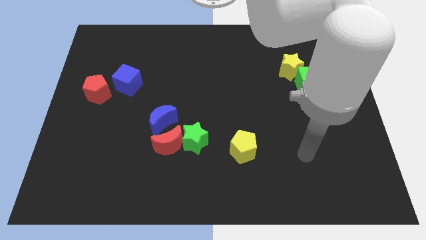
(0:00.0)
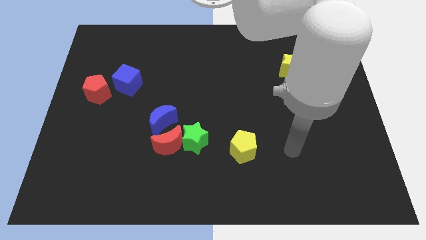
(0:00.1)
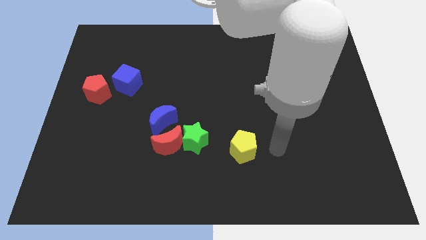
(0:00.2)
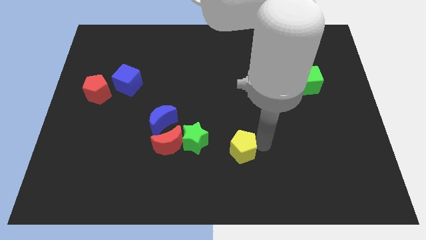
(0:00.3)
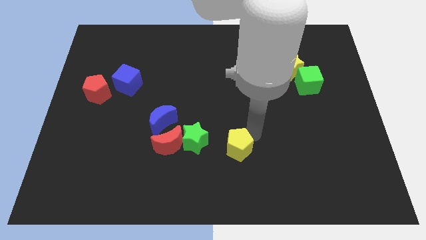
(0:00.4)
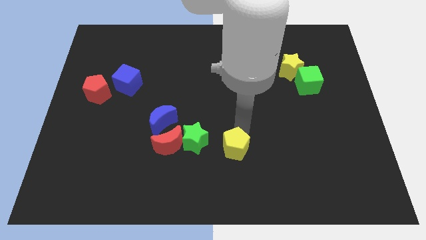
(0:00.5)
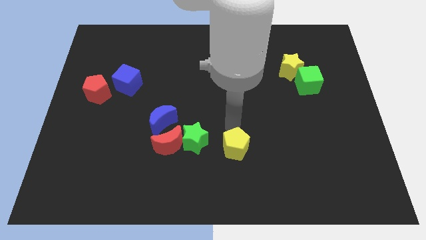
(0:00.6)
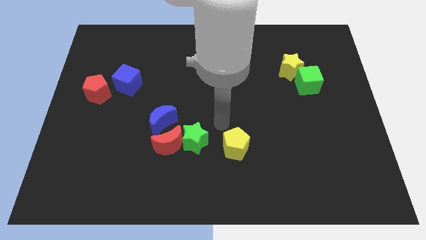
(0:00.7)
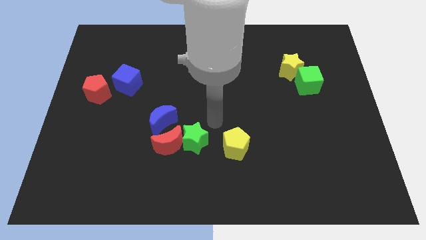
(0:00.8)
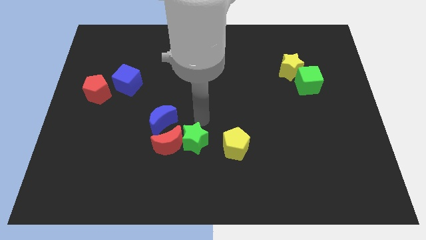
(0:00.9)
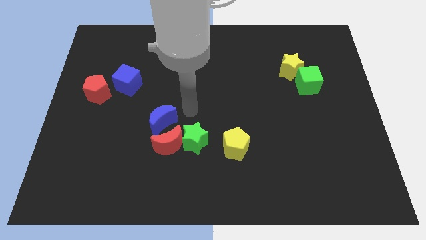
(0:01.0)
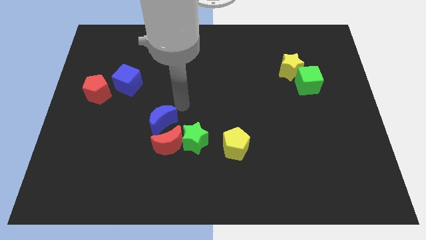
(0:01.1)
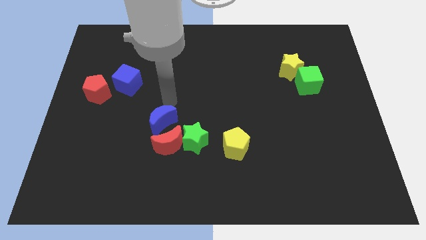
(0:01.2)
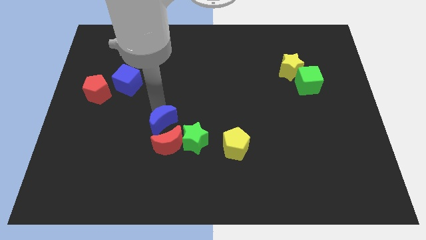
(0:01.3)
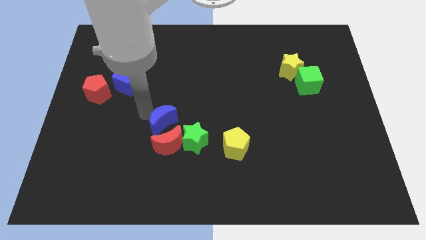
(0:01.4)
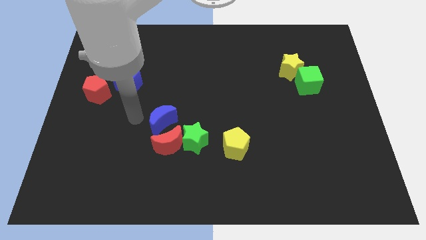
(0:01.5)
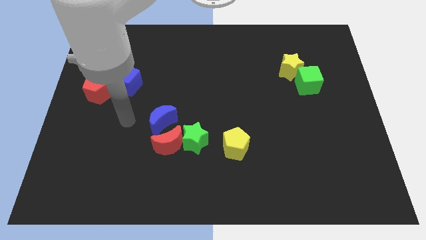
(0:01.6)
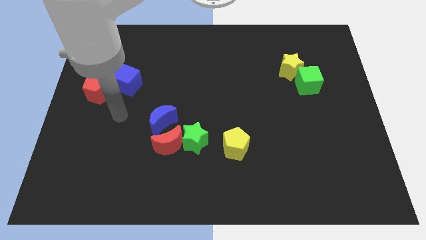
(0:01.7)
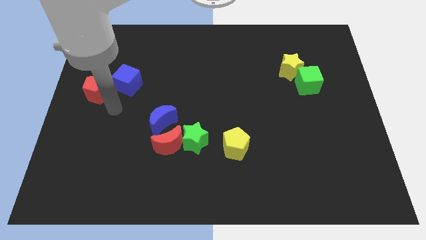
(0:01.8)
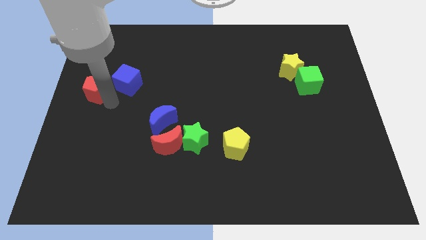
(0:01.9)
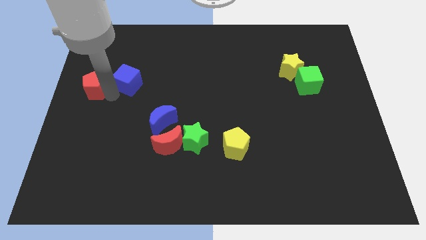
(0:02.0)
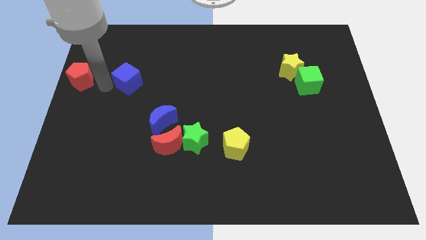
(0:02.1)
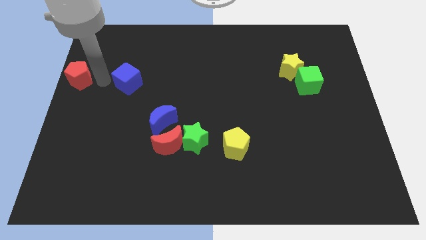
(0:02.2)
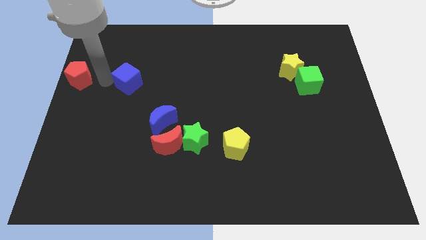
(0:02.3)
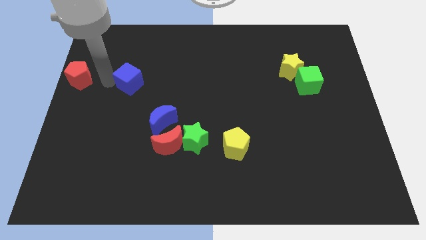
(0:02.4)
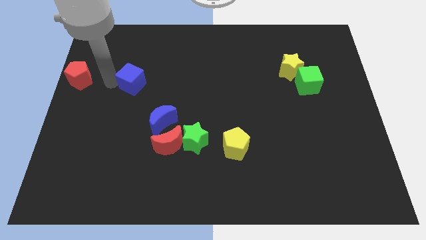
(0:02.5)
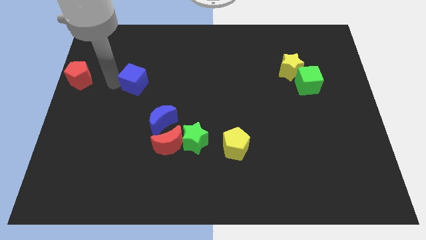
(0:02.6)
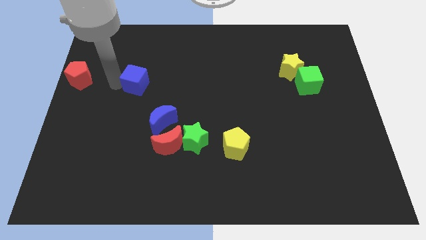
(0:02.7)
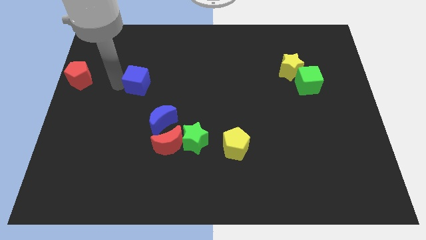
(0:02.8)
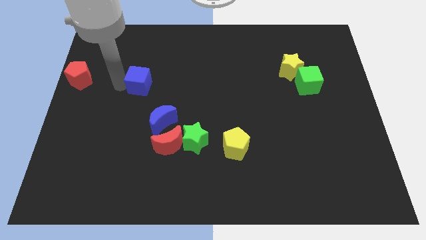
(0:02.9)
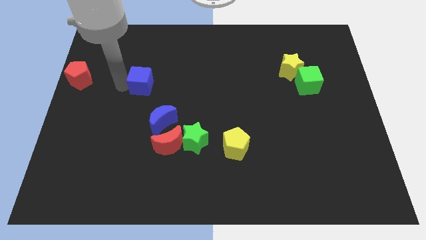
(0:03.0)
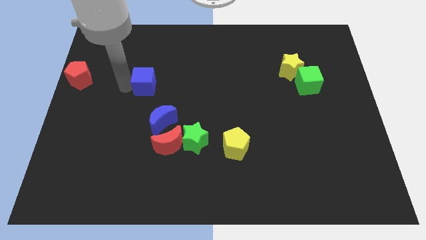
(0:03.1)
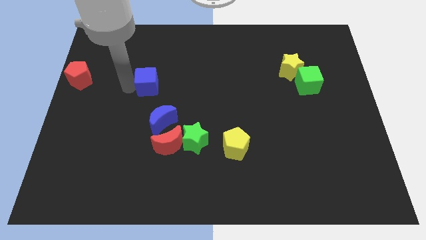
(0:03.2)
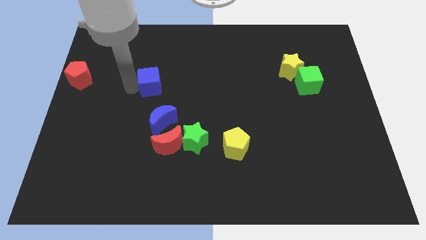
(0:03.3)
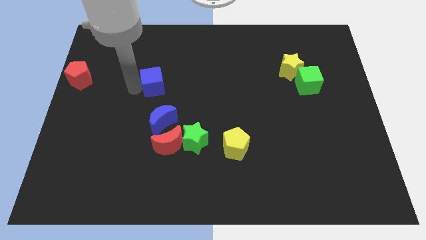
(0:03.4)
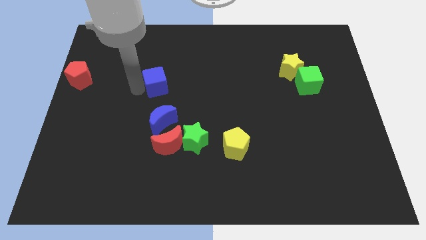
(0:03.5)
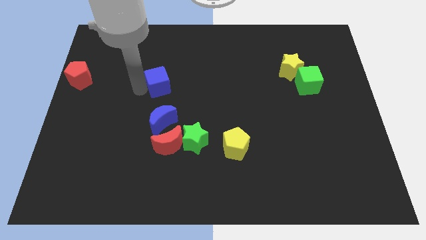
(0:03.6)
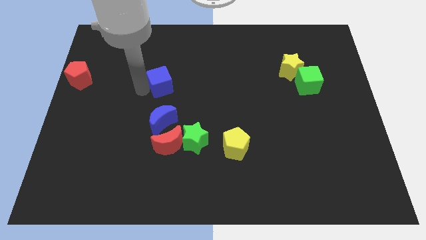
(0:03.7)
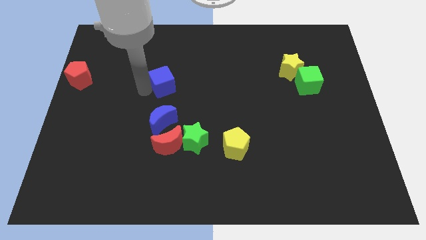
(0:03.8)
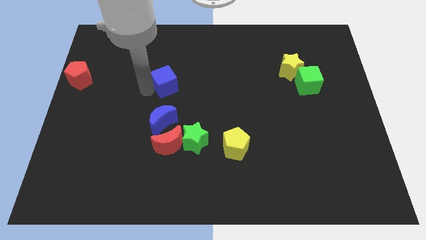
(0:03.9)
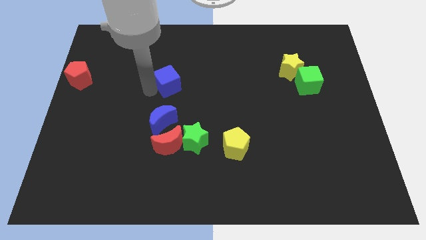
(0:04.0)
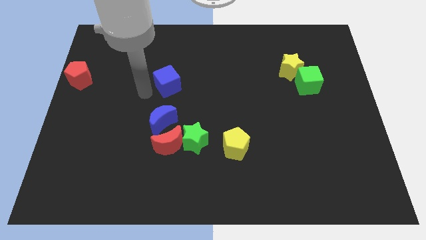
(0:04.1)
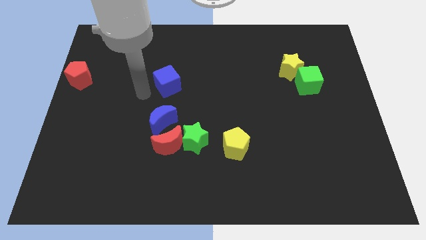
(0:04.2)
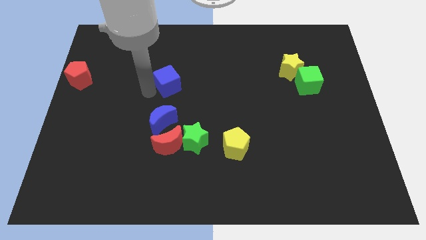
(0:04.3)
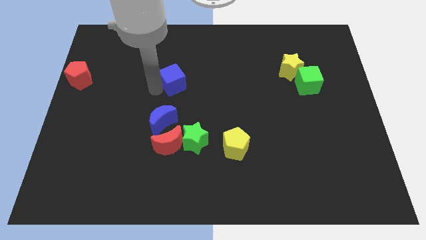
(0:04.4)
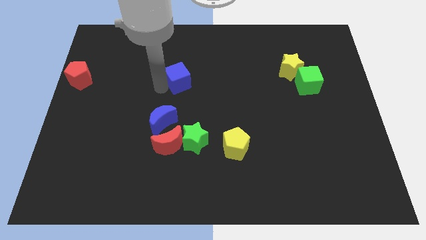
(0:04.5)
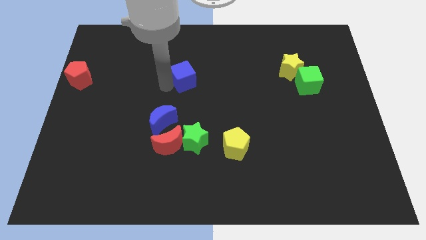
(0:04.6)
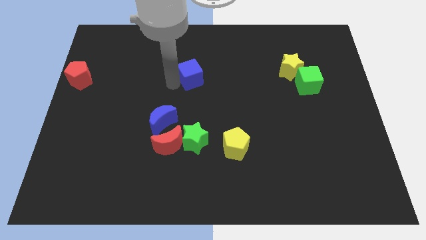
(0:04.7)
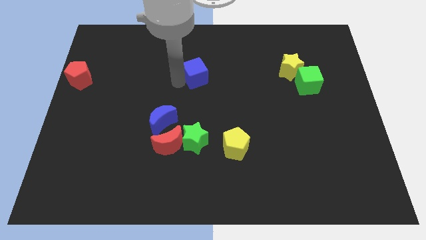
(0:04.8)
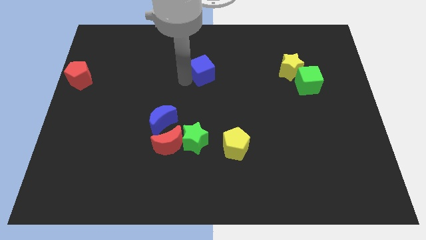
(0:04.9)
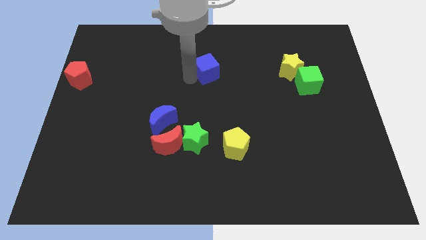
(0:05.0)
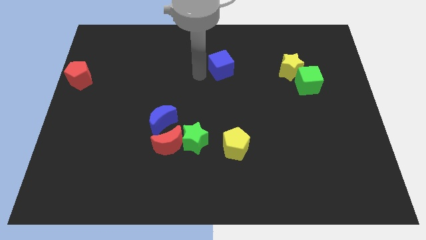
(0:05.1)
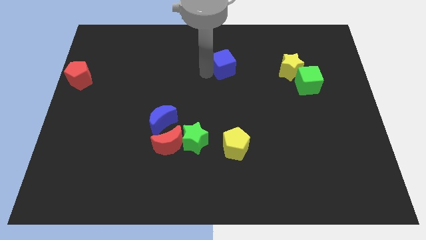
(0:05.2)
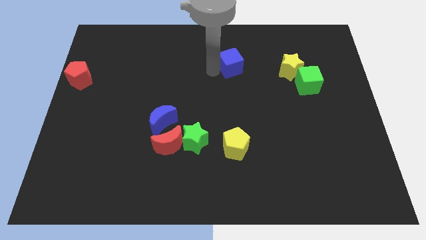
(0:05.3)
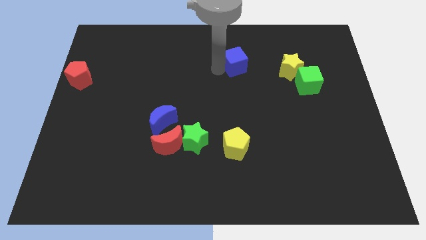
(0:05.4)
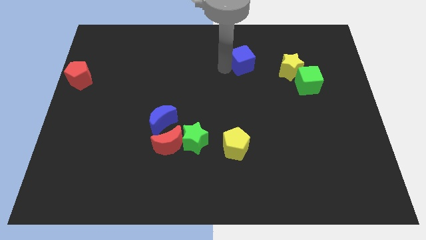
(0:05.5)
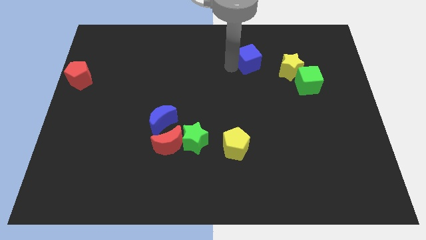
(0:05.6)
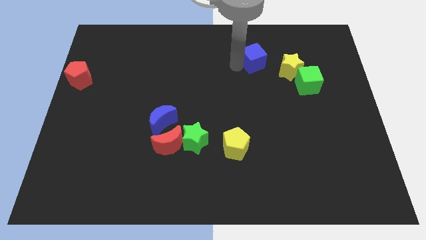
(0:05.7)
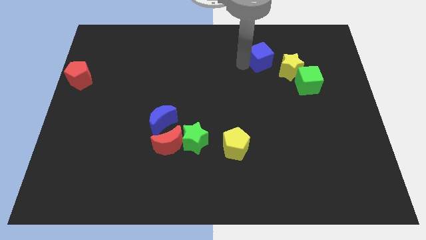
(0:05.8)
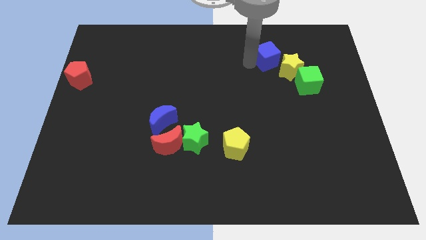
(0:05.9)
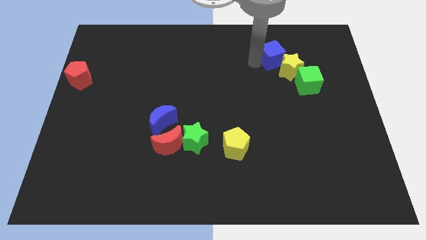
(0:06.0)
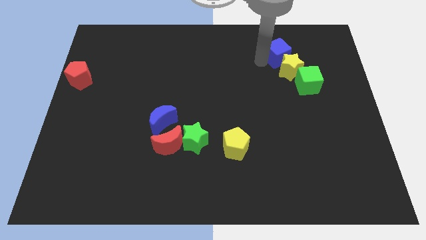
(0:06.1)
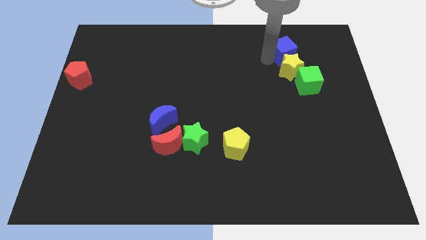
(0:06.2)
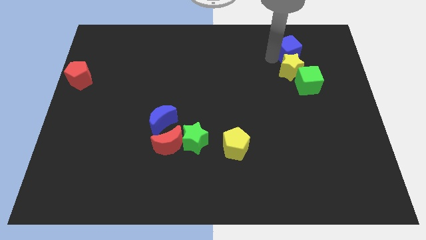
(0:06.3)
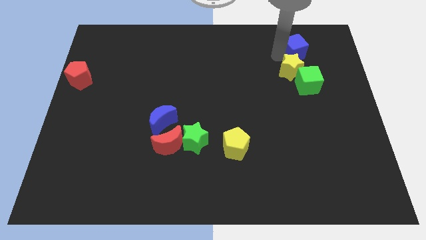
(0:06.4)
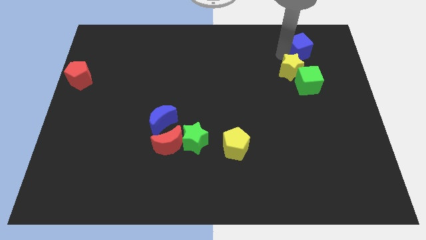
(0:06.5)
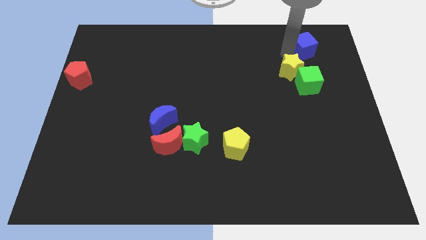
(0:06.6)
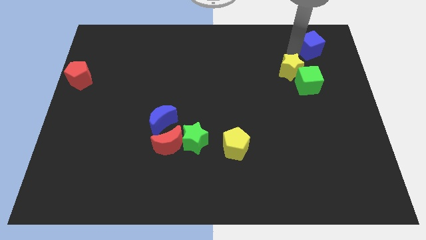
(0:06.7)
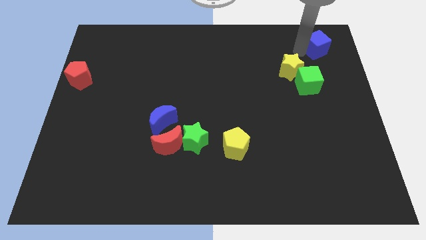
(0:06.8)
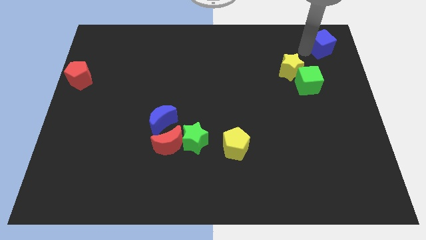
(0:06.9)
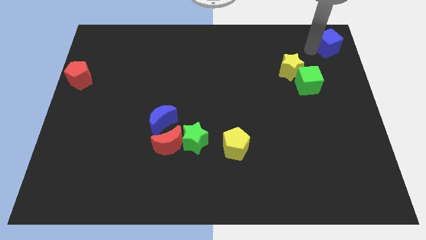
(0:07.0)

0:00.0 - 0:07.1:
slide the blue cube to the top right corner
